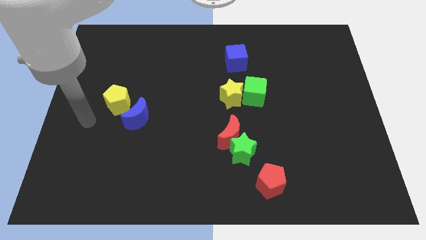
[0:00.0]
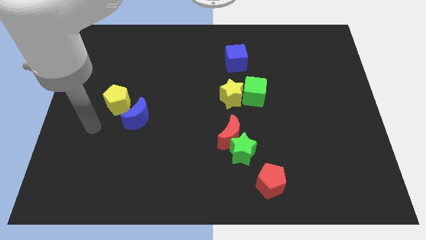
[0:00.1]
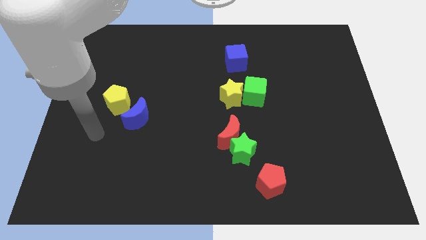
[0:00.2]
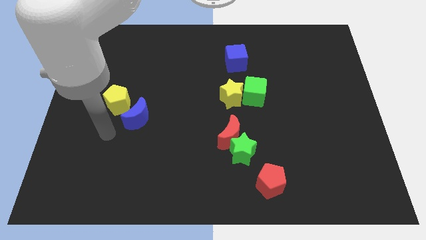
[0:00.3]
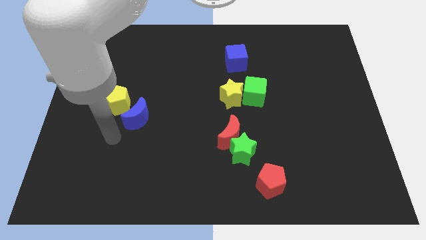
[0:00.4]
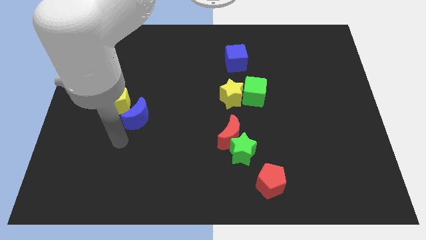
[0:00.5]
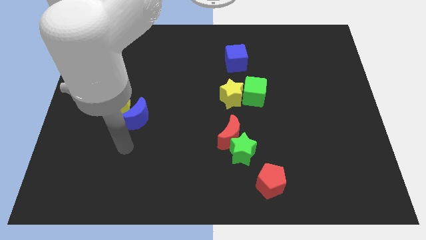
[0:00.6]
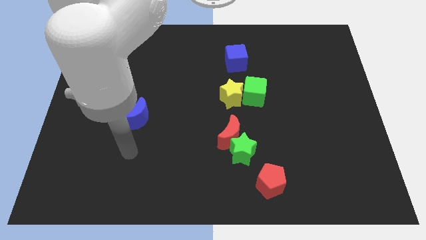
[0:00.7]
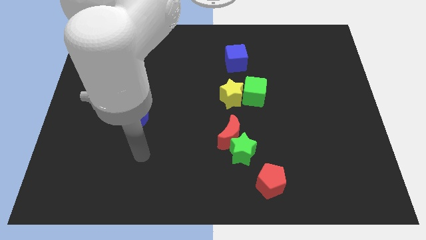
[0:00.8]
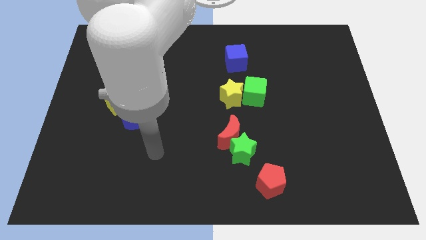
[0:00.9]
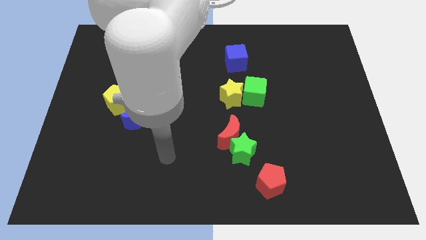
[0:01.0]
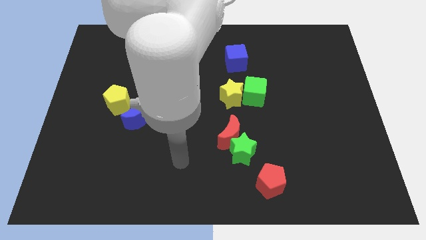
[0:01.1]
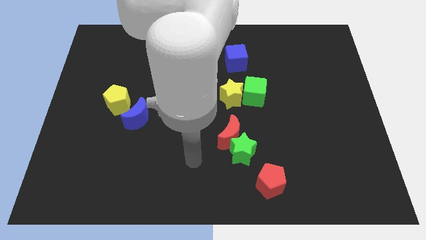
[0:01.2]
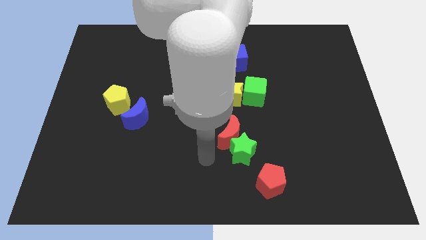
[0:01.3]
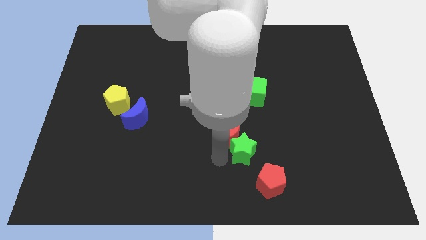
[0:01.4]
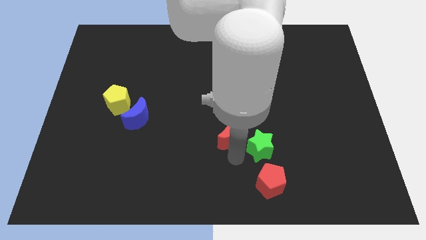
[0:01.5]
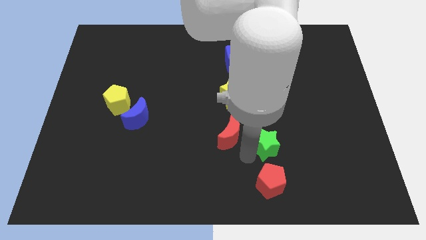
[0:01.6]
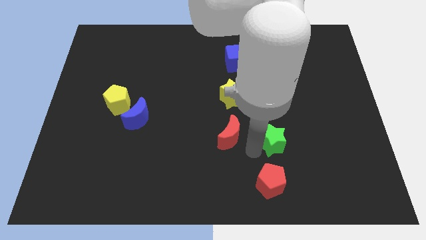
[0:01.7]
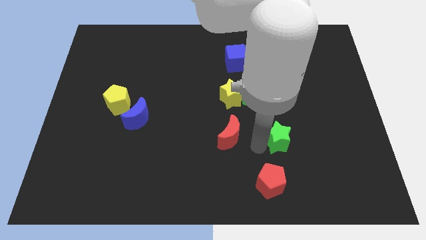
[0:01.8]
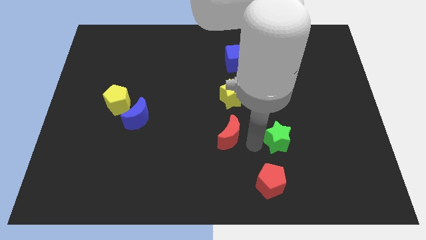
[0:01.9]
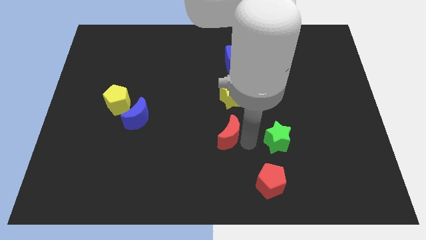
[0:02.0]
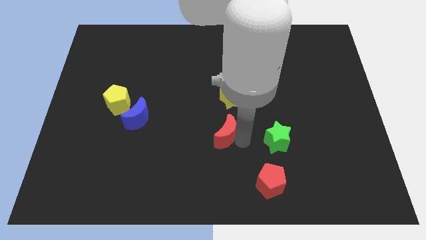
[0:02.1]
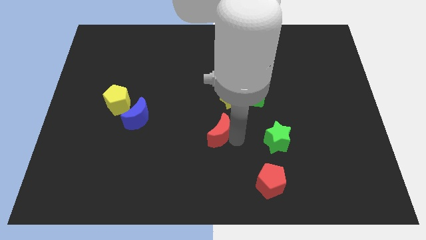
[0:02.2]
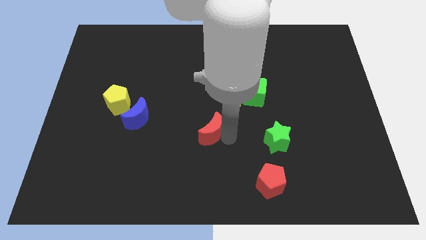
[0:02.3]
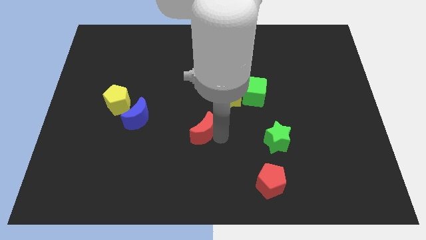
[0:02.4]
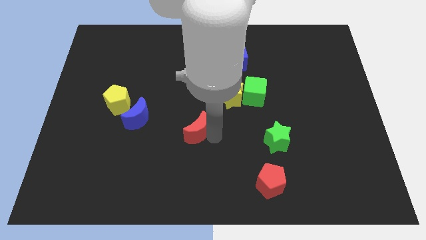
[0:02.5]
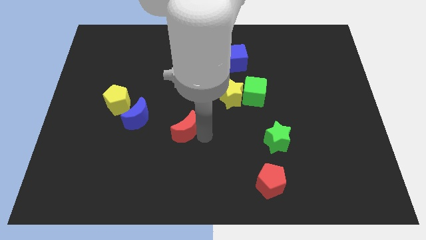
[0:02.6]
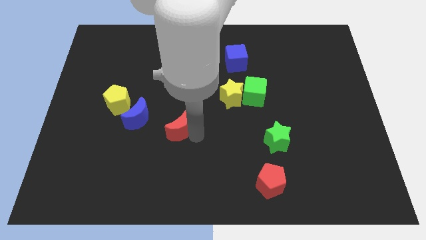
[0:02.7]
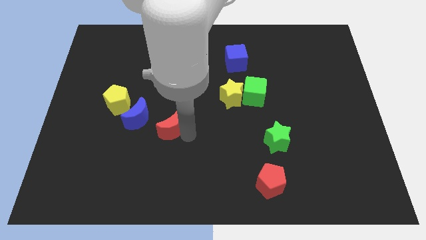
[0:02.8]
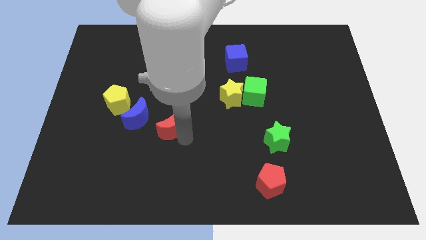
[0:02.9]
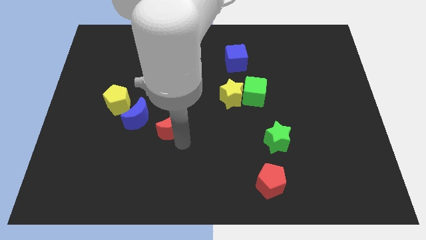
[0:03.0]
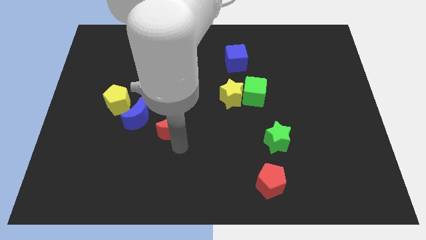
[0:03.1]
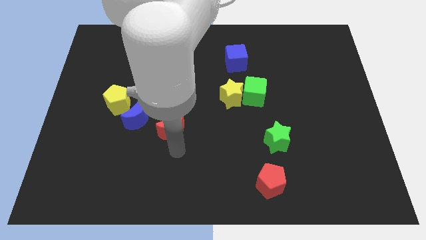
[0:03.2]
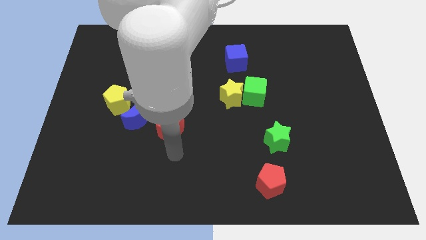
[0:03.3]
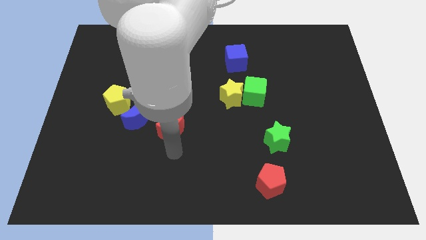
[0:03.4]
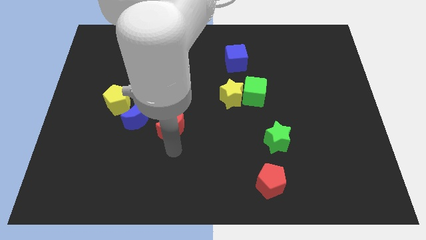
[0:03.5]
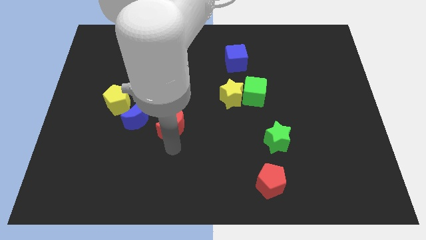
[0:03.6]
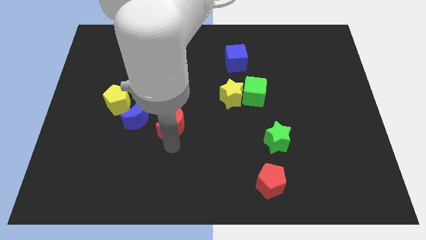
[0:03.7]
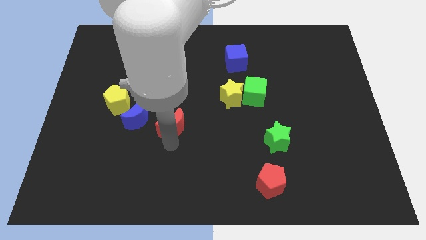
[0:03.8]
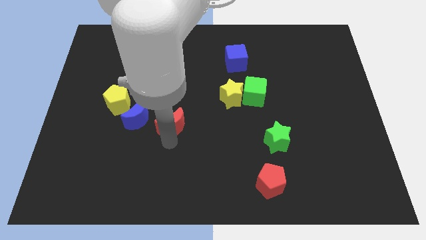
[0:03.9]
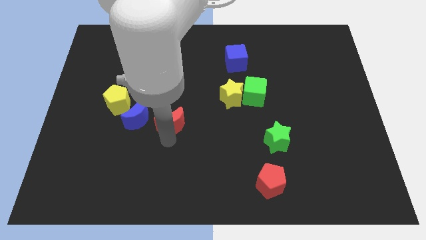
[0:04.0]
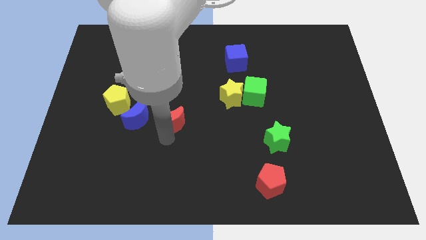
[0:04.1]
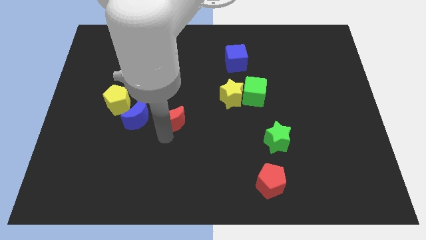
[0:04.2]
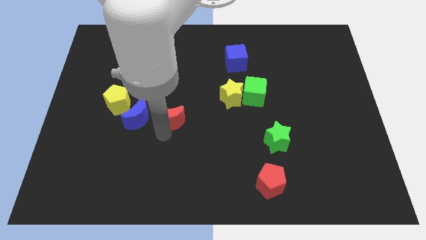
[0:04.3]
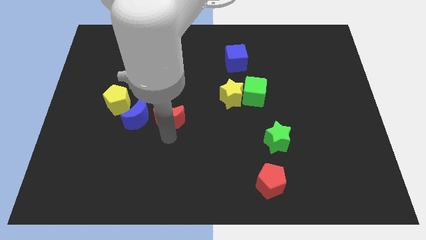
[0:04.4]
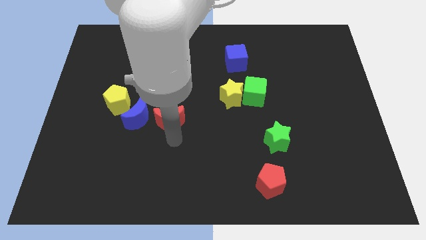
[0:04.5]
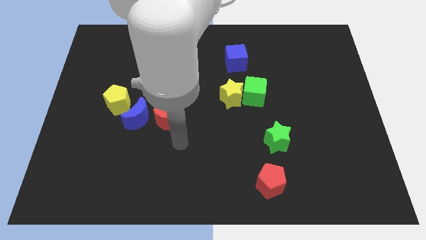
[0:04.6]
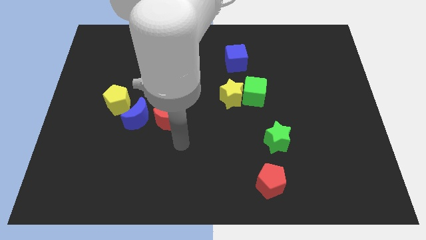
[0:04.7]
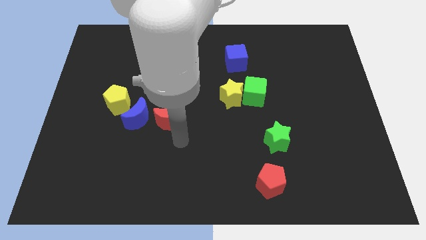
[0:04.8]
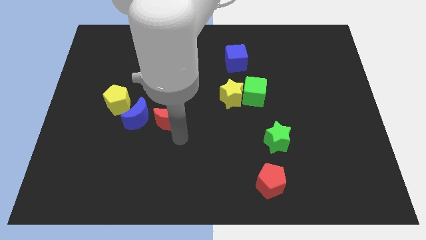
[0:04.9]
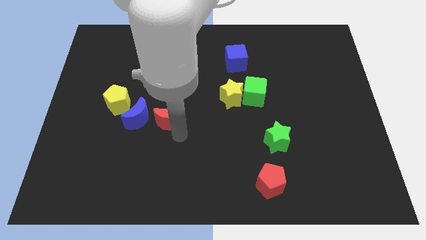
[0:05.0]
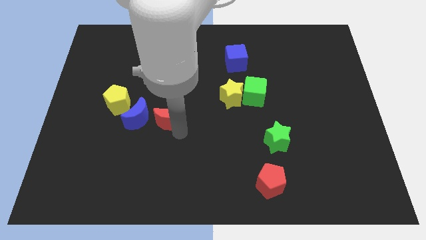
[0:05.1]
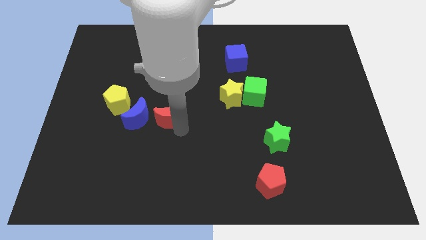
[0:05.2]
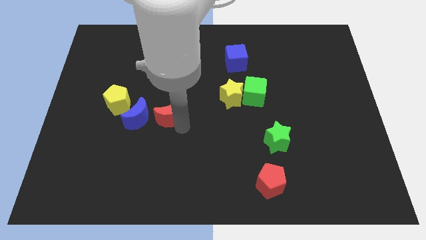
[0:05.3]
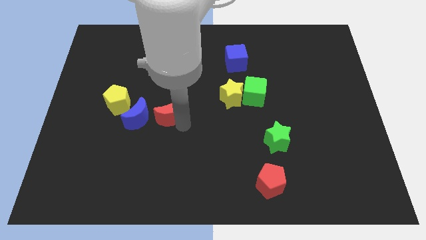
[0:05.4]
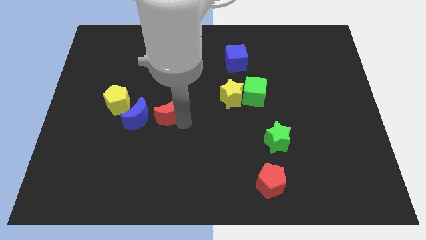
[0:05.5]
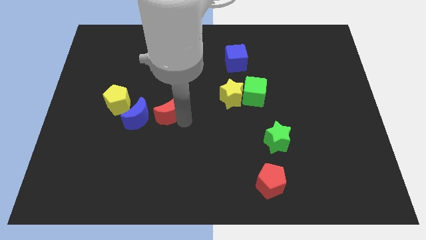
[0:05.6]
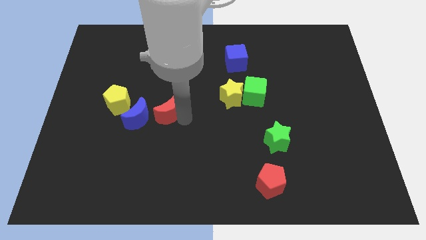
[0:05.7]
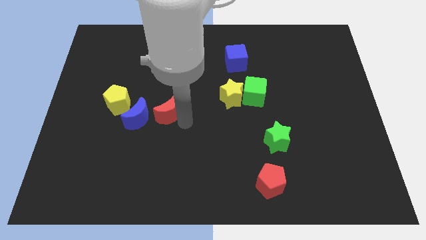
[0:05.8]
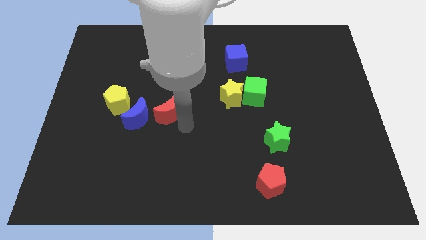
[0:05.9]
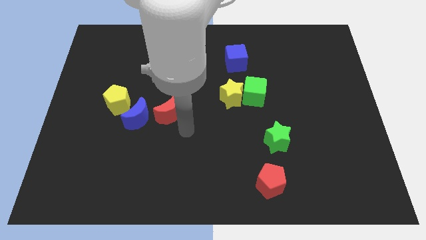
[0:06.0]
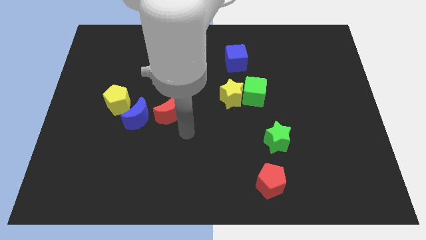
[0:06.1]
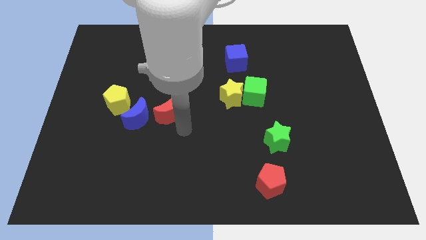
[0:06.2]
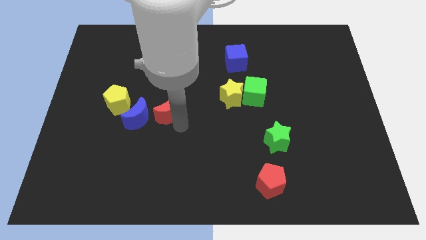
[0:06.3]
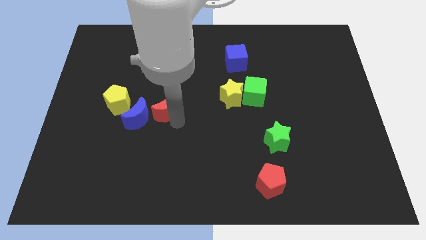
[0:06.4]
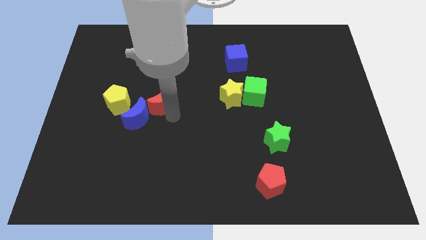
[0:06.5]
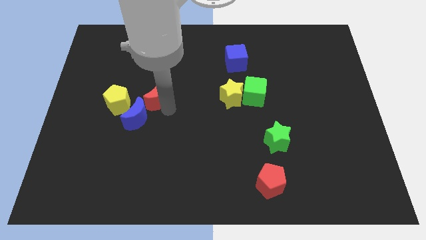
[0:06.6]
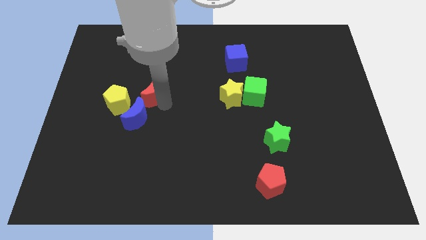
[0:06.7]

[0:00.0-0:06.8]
put the red moon to the top right of the yellow pentagon
